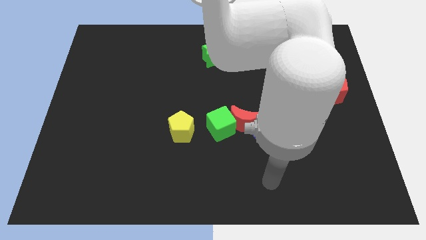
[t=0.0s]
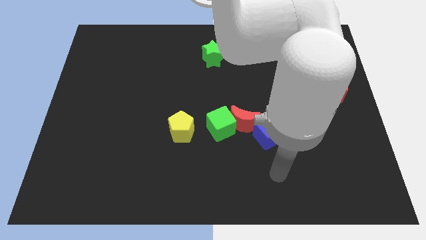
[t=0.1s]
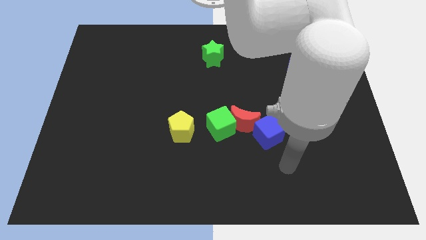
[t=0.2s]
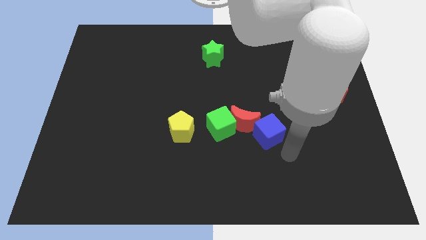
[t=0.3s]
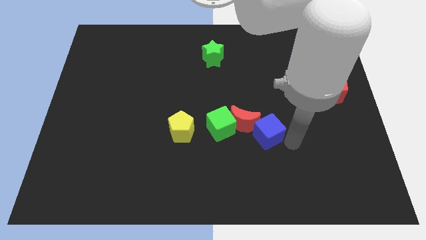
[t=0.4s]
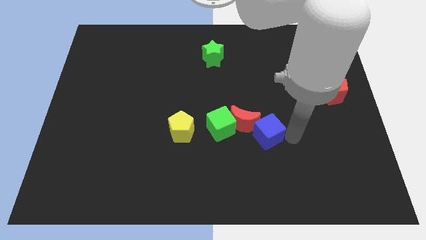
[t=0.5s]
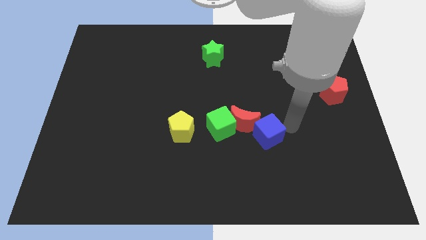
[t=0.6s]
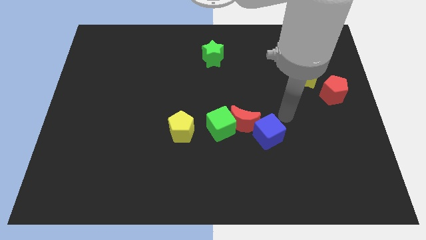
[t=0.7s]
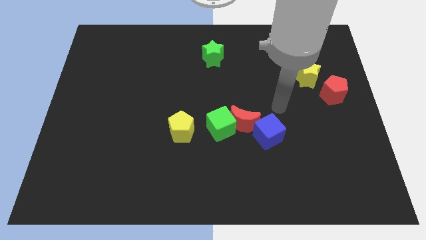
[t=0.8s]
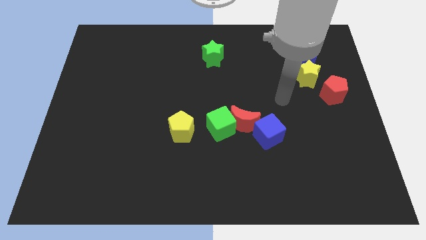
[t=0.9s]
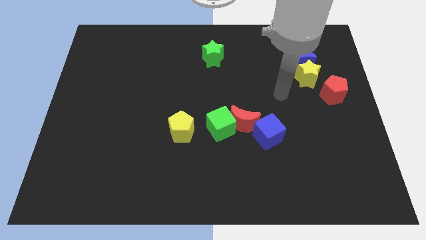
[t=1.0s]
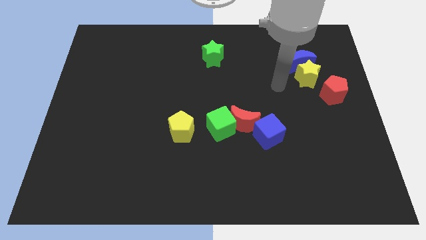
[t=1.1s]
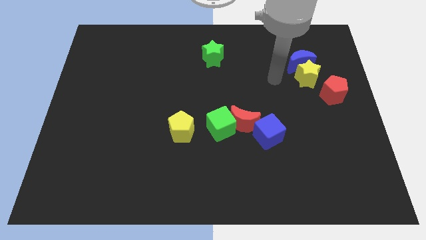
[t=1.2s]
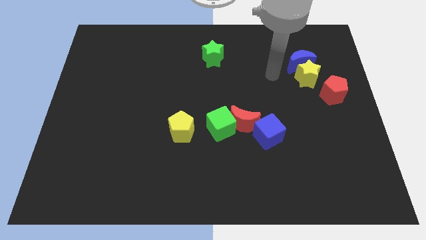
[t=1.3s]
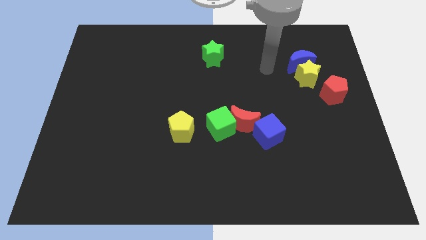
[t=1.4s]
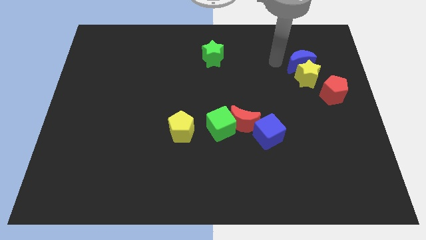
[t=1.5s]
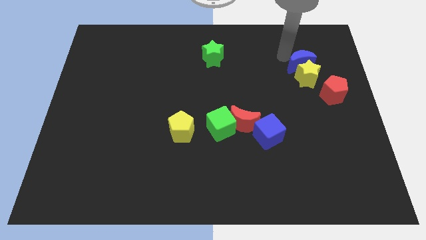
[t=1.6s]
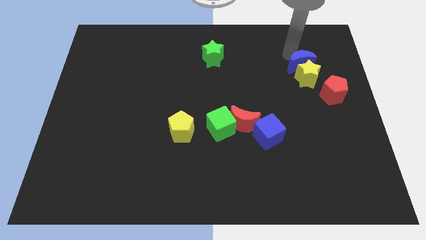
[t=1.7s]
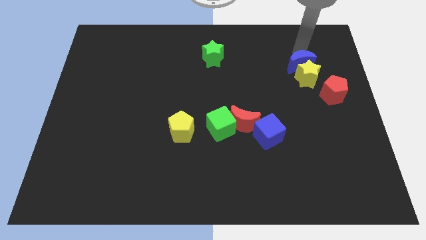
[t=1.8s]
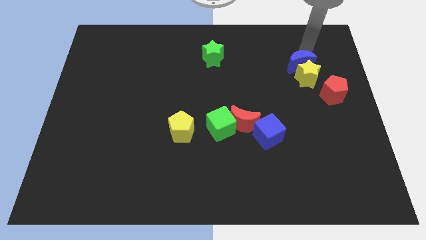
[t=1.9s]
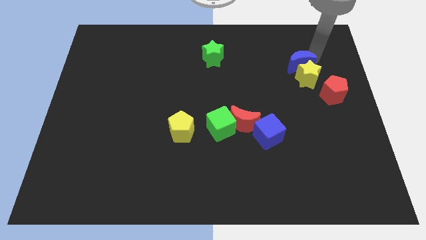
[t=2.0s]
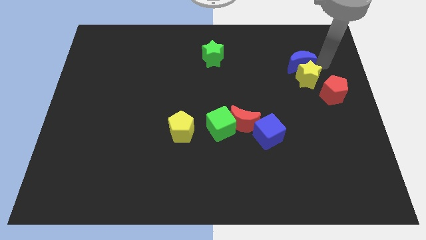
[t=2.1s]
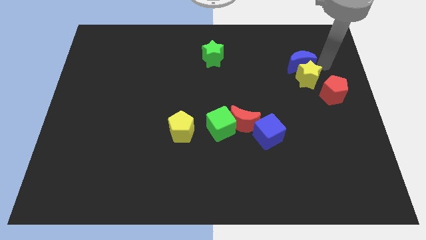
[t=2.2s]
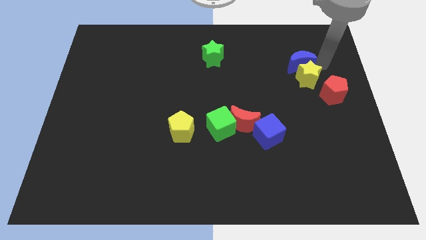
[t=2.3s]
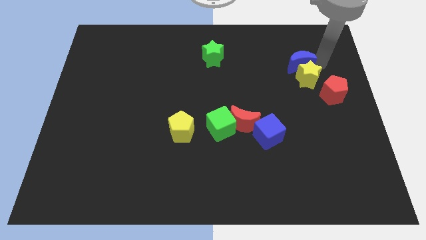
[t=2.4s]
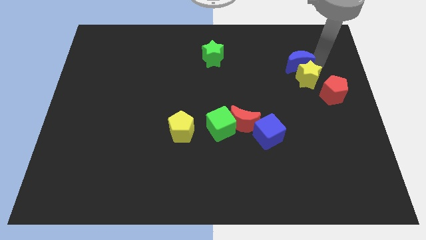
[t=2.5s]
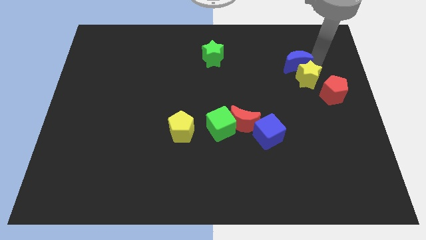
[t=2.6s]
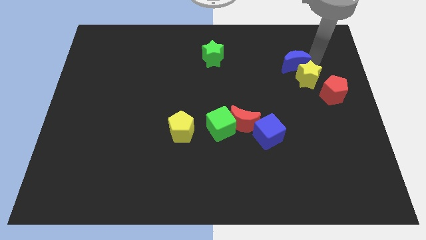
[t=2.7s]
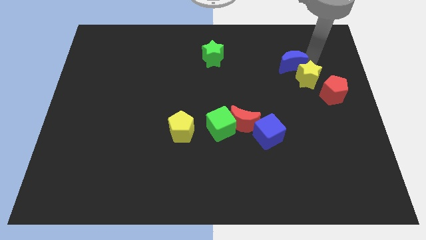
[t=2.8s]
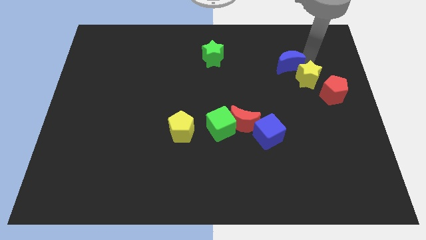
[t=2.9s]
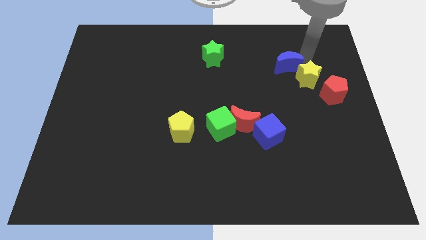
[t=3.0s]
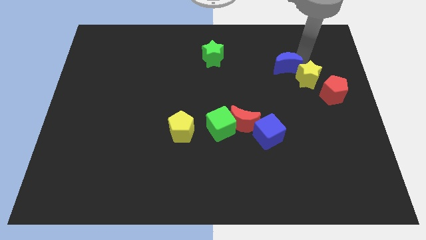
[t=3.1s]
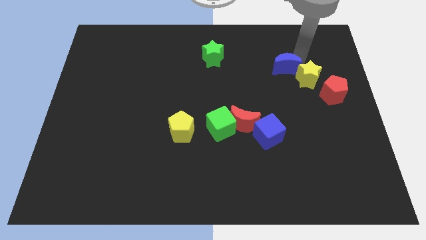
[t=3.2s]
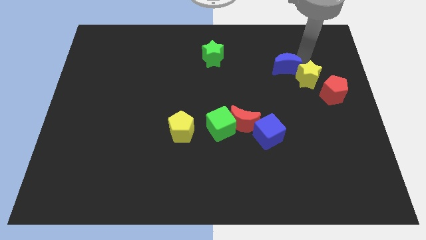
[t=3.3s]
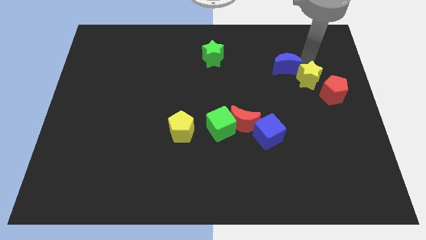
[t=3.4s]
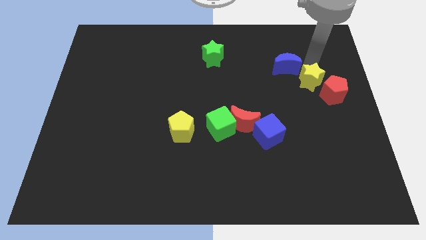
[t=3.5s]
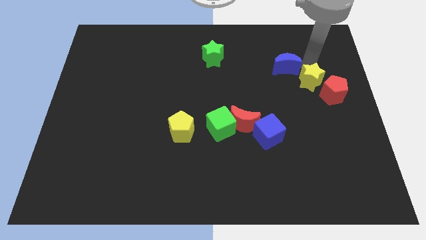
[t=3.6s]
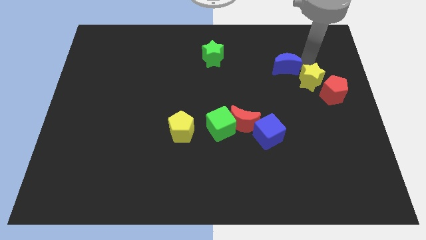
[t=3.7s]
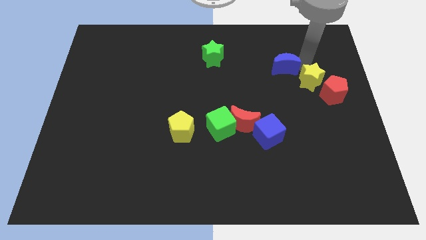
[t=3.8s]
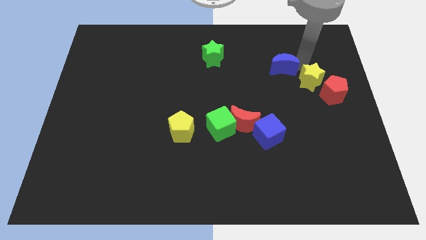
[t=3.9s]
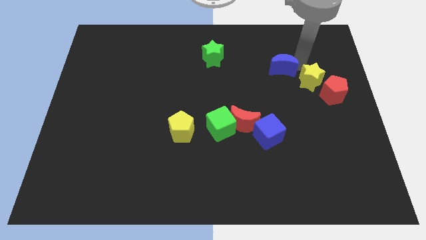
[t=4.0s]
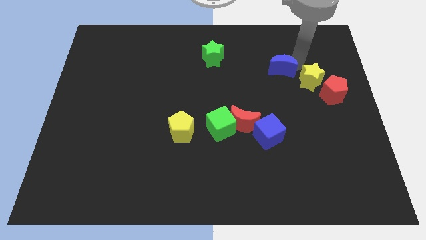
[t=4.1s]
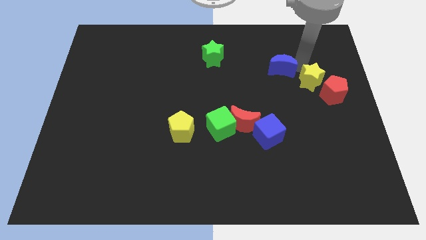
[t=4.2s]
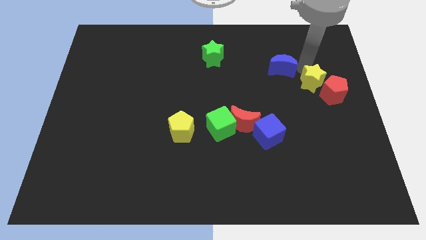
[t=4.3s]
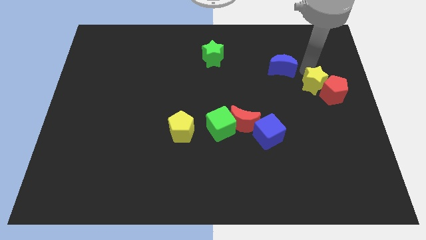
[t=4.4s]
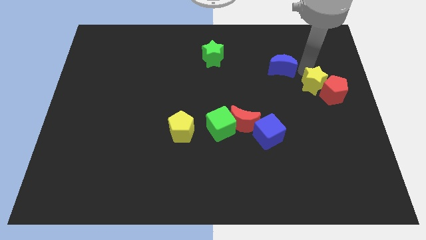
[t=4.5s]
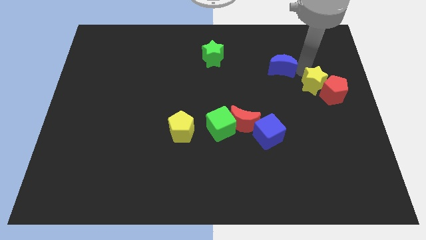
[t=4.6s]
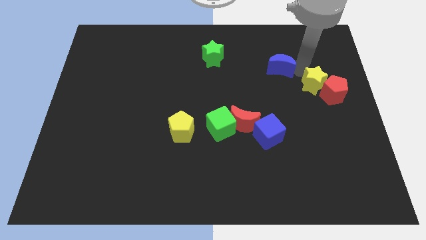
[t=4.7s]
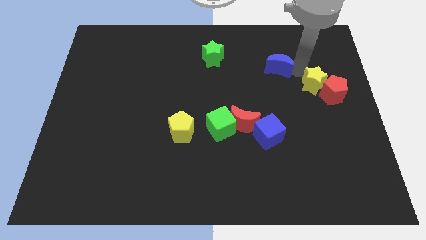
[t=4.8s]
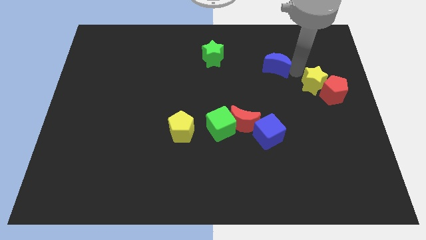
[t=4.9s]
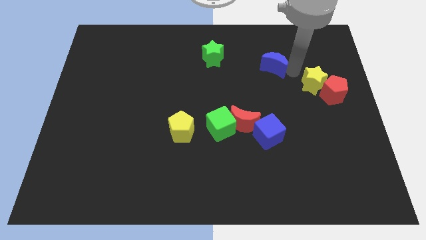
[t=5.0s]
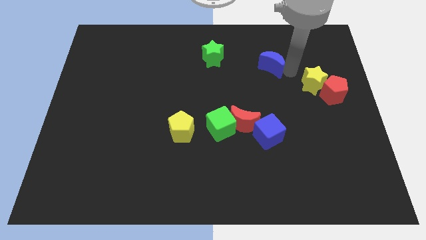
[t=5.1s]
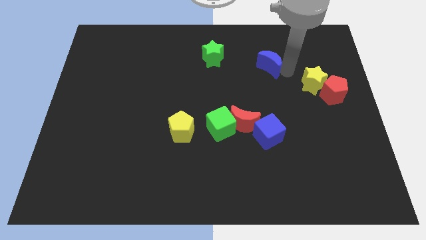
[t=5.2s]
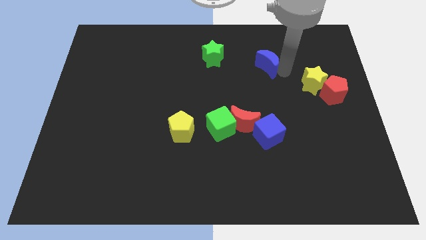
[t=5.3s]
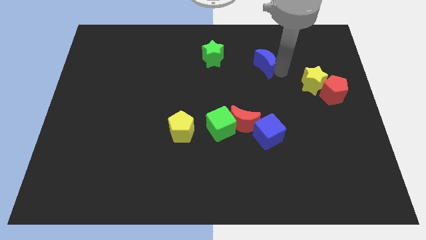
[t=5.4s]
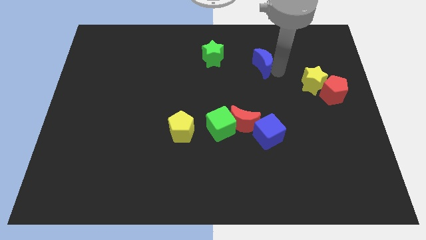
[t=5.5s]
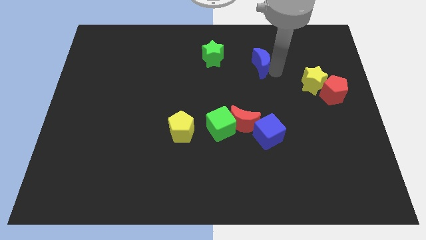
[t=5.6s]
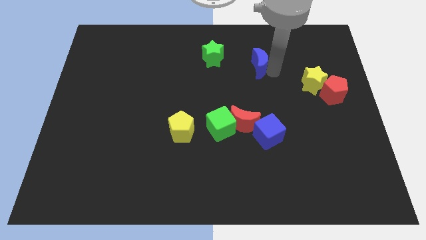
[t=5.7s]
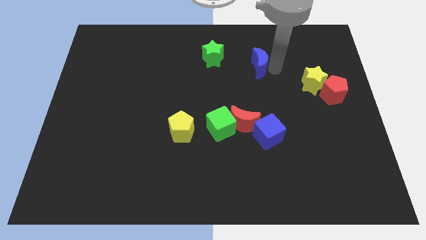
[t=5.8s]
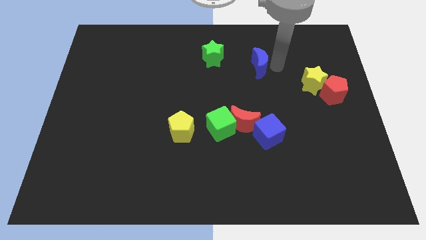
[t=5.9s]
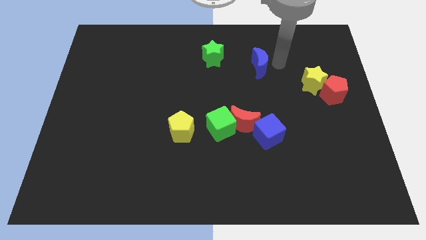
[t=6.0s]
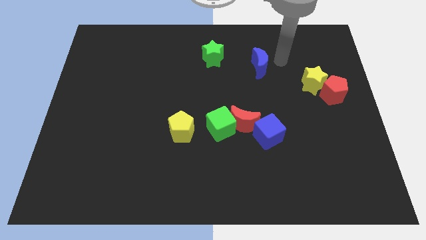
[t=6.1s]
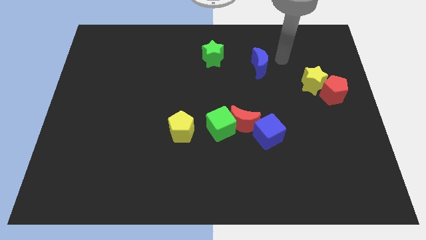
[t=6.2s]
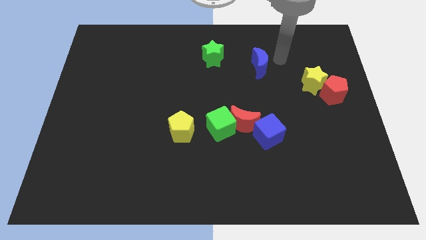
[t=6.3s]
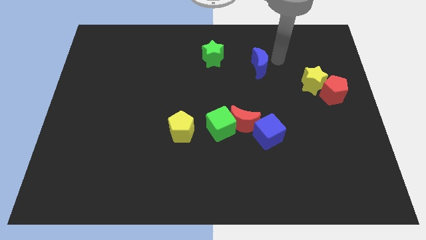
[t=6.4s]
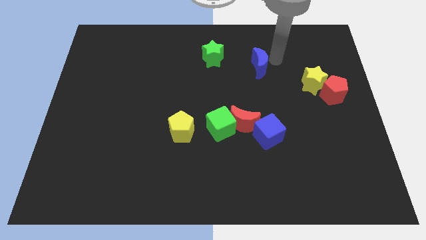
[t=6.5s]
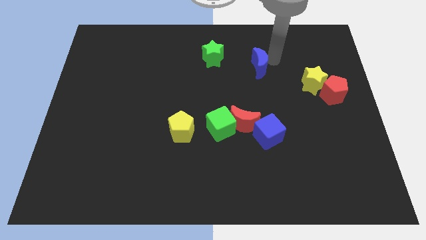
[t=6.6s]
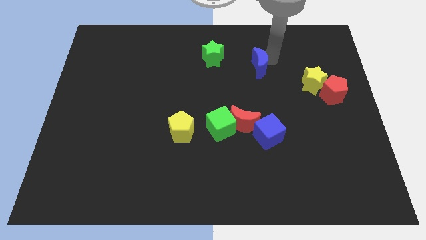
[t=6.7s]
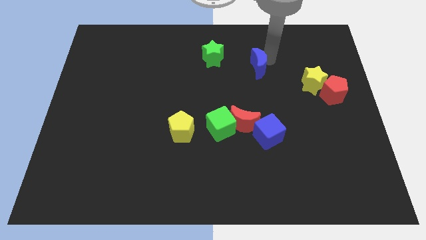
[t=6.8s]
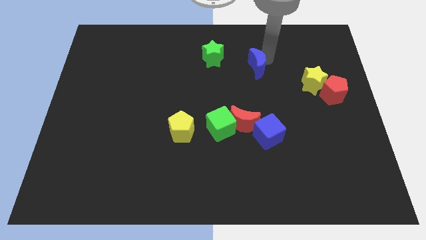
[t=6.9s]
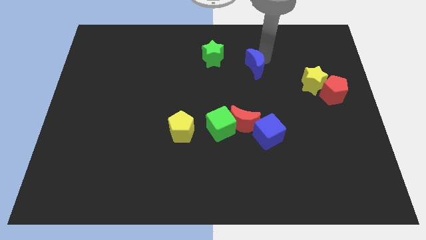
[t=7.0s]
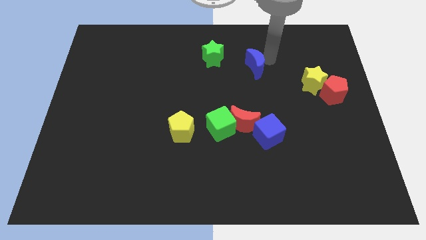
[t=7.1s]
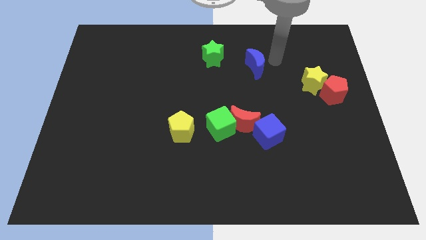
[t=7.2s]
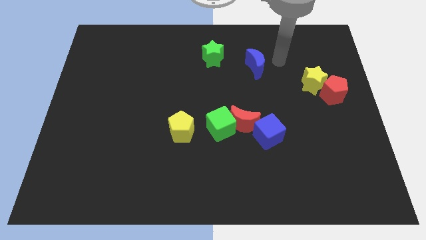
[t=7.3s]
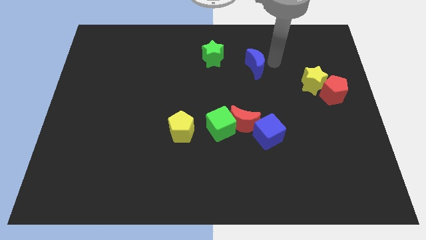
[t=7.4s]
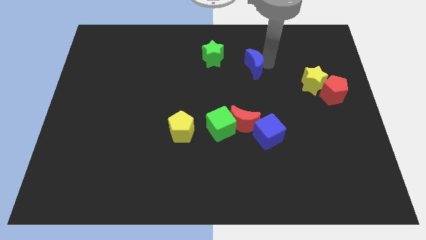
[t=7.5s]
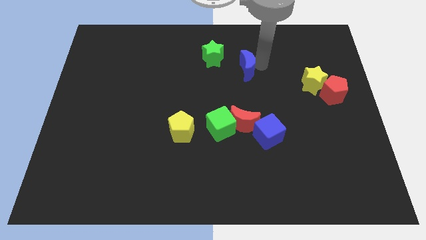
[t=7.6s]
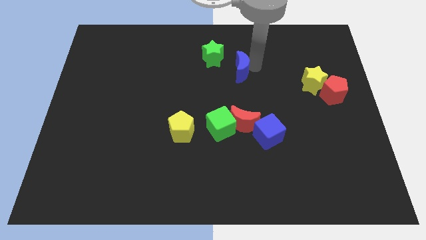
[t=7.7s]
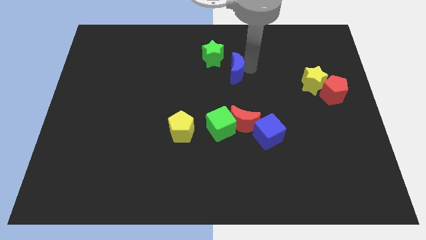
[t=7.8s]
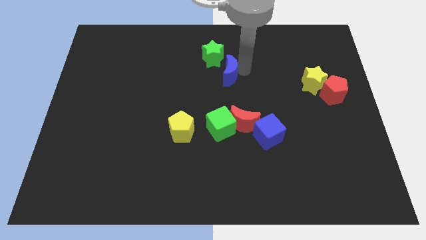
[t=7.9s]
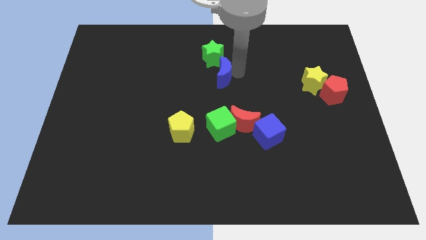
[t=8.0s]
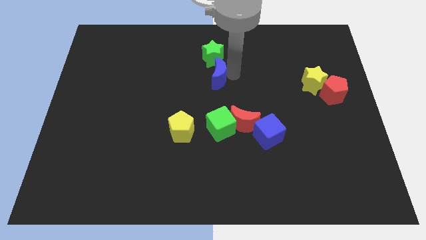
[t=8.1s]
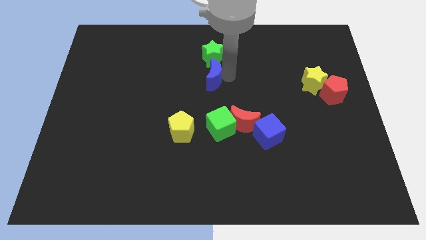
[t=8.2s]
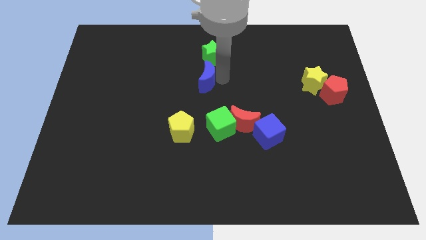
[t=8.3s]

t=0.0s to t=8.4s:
put the blue moon to the bottom left of the green star
